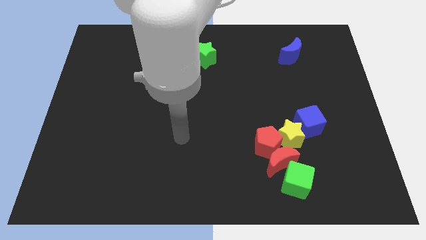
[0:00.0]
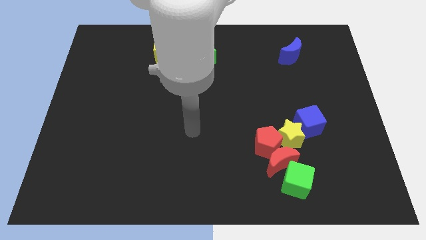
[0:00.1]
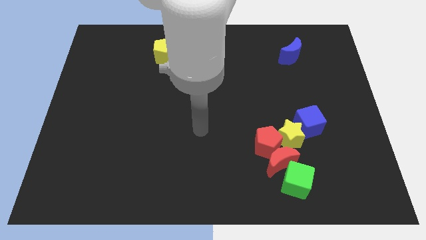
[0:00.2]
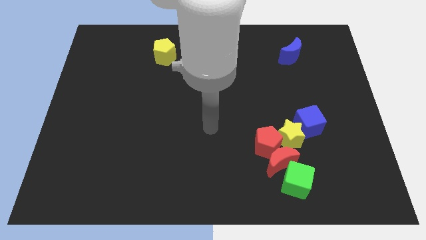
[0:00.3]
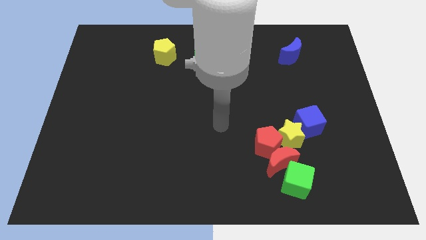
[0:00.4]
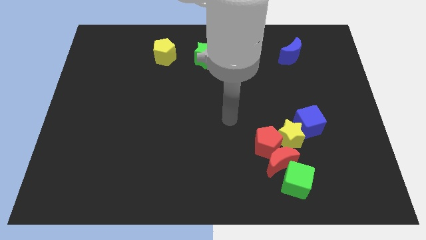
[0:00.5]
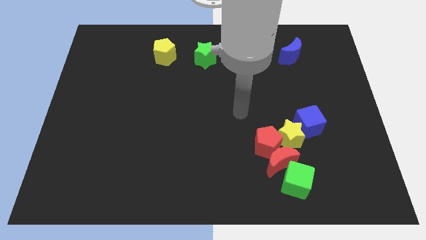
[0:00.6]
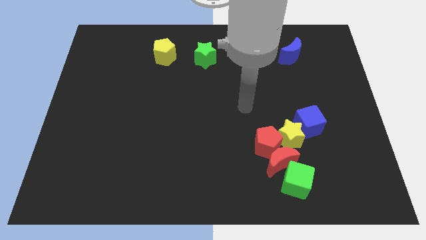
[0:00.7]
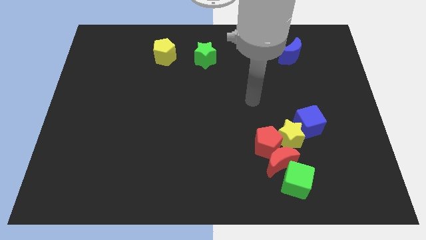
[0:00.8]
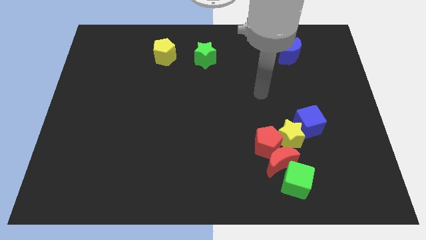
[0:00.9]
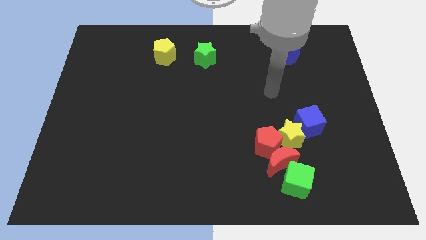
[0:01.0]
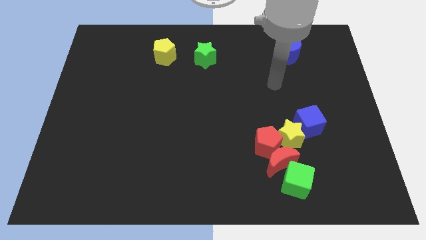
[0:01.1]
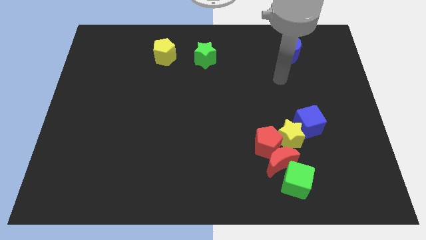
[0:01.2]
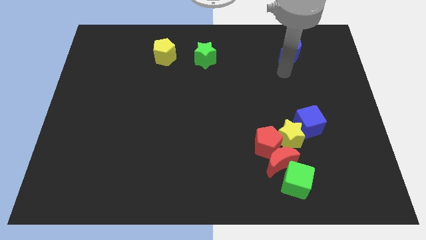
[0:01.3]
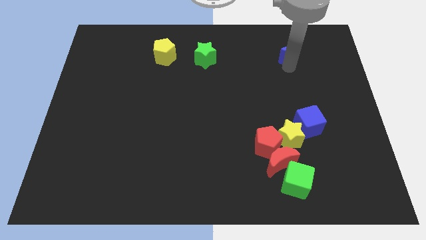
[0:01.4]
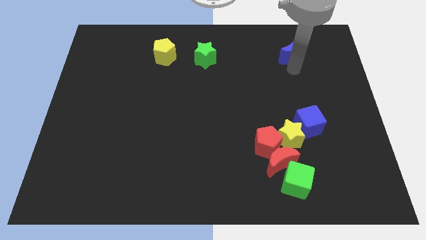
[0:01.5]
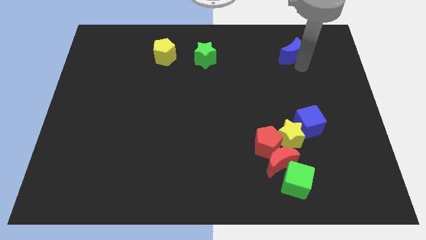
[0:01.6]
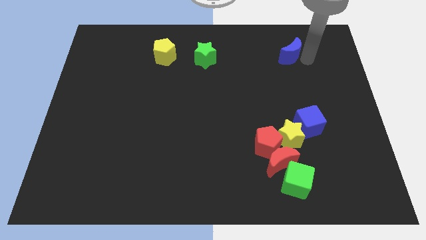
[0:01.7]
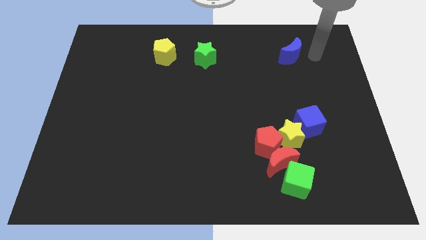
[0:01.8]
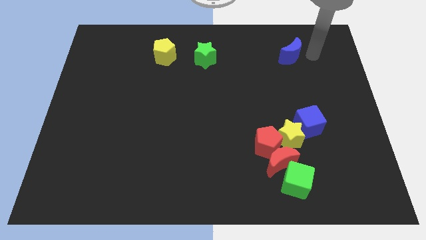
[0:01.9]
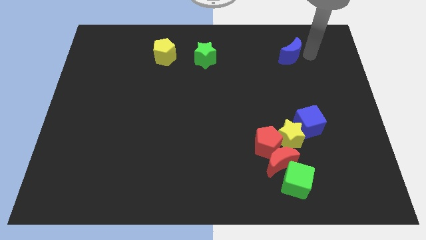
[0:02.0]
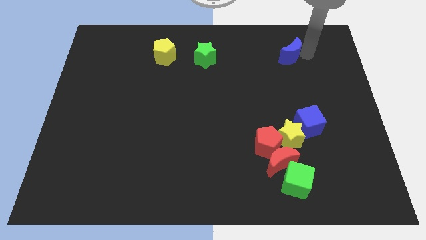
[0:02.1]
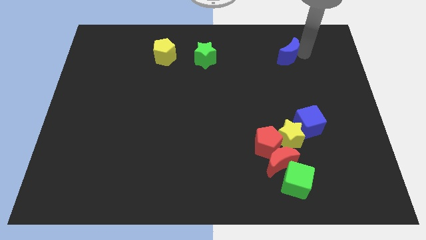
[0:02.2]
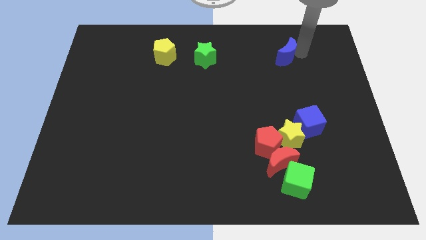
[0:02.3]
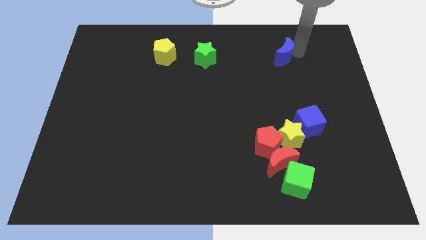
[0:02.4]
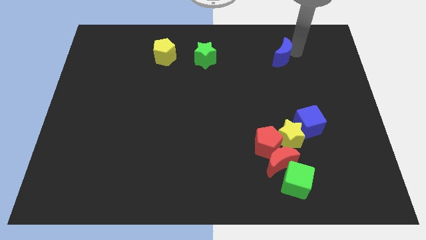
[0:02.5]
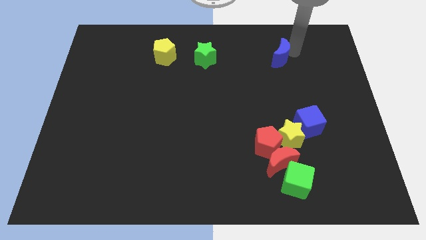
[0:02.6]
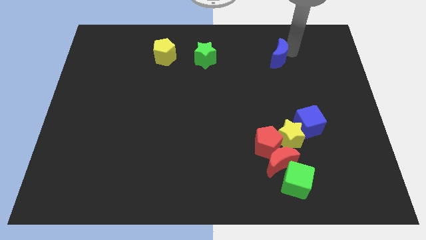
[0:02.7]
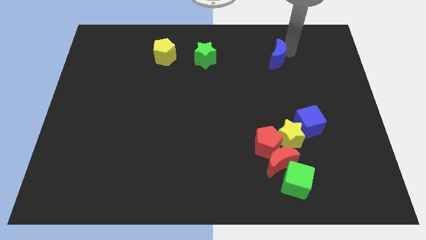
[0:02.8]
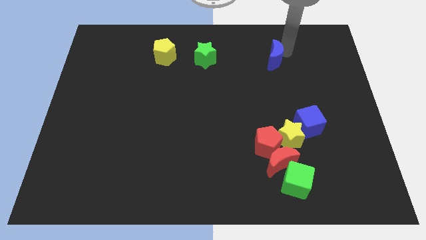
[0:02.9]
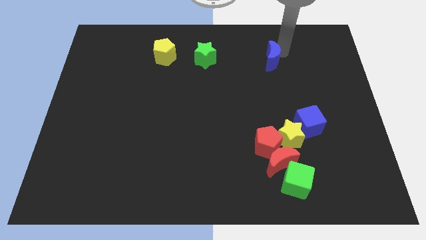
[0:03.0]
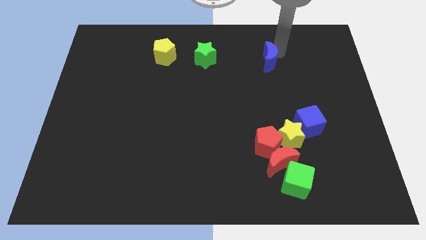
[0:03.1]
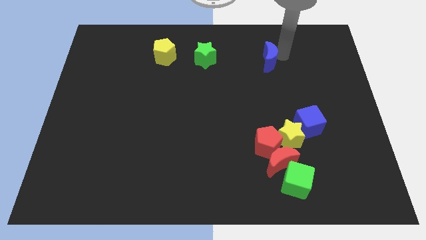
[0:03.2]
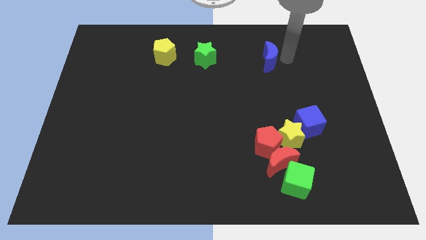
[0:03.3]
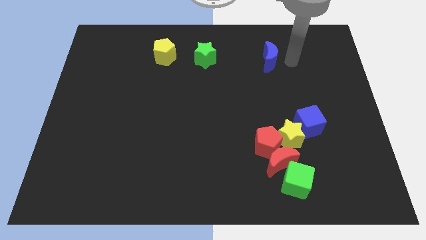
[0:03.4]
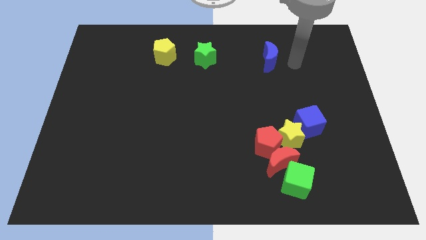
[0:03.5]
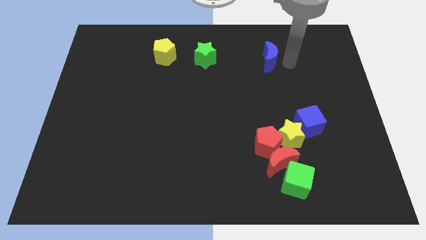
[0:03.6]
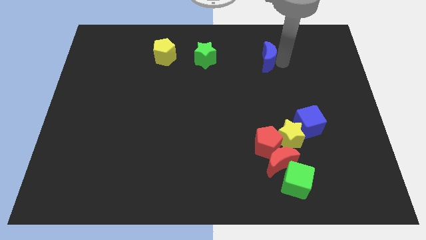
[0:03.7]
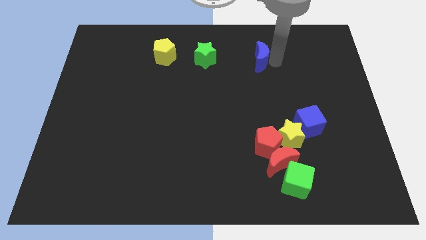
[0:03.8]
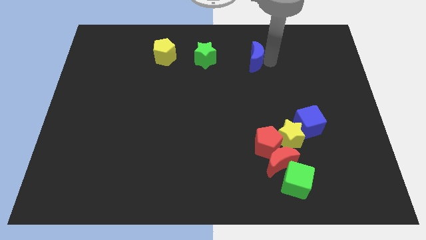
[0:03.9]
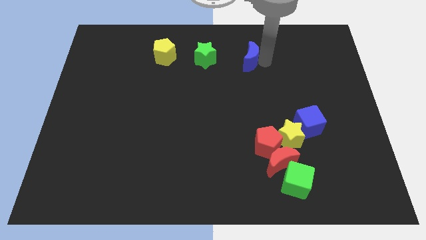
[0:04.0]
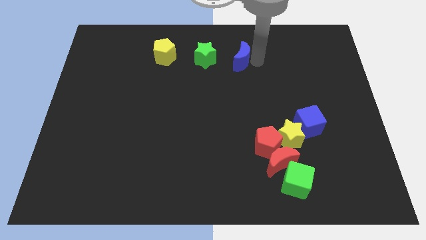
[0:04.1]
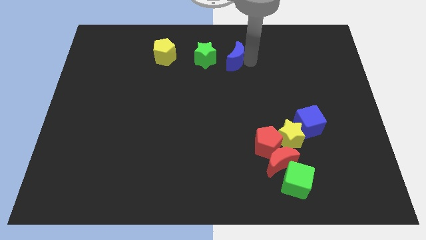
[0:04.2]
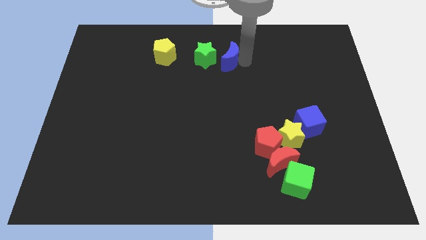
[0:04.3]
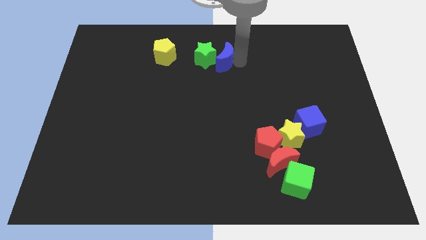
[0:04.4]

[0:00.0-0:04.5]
put the blue moon close to the green star

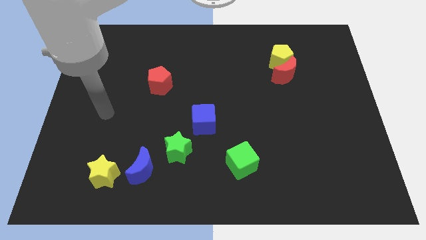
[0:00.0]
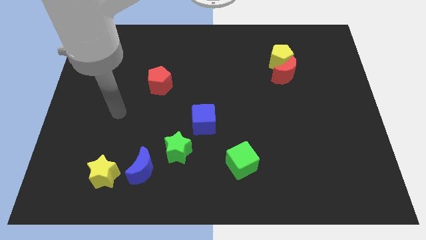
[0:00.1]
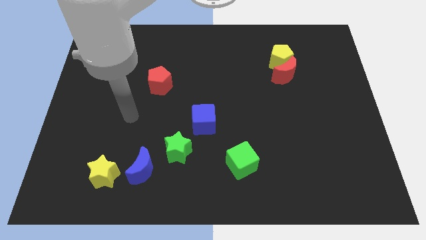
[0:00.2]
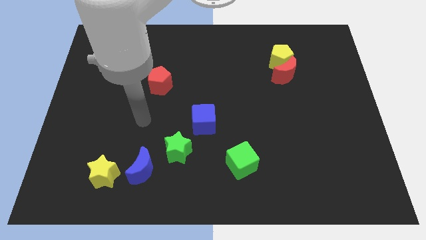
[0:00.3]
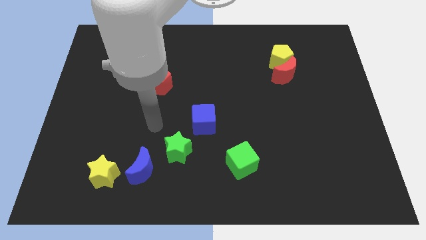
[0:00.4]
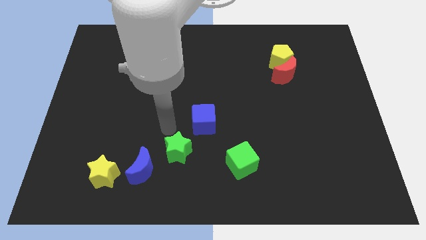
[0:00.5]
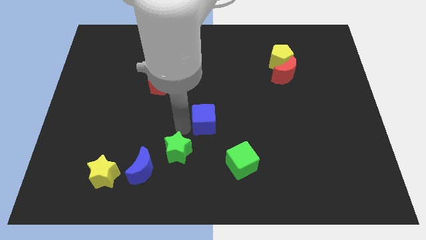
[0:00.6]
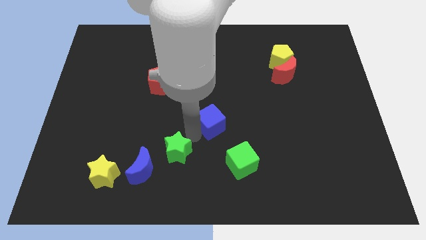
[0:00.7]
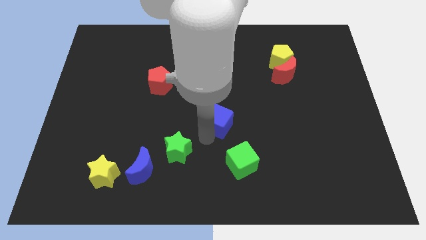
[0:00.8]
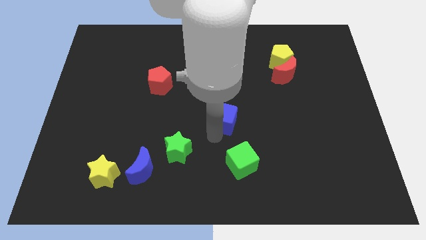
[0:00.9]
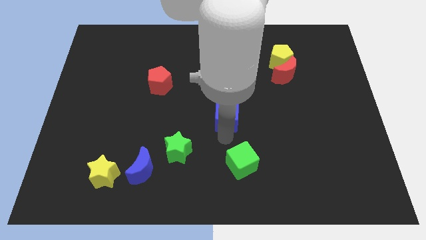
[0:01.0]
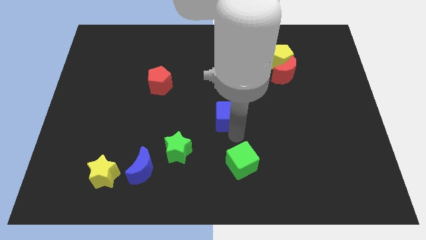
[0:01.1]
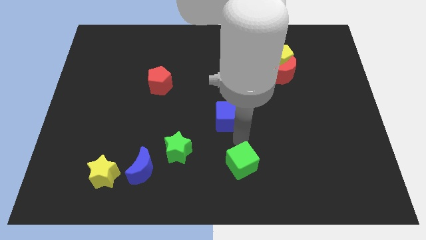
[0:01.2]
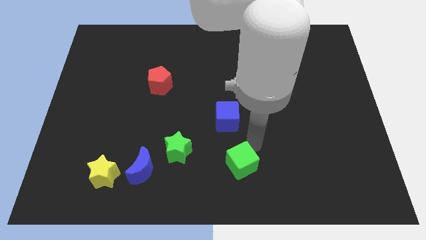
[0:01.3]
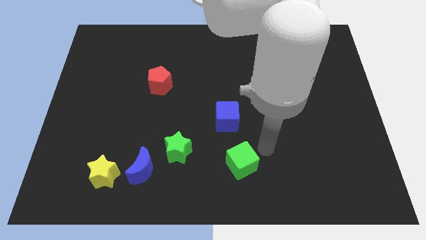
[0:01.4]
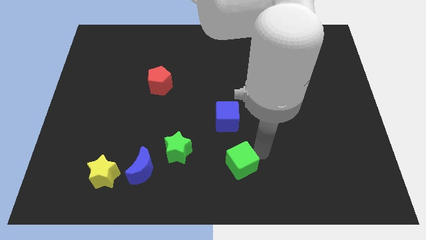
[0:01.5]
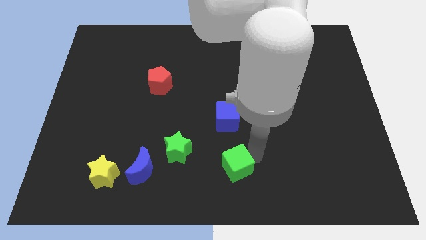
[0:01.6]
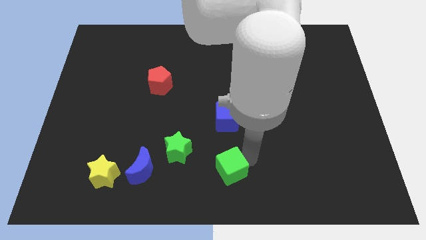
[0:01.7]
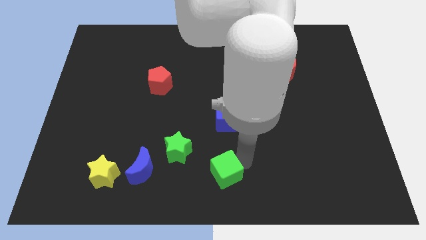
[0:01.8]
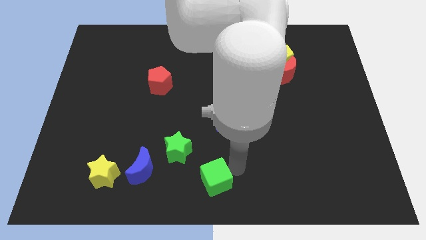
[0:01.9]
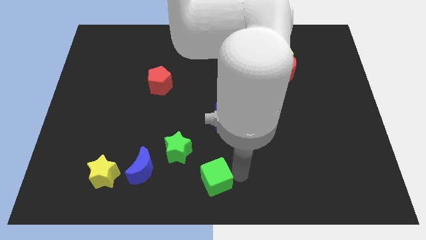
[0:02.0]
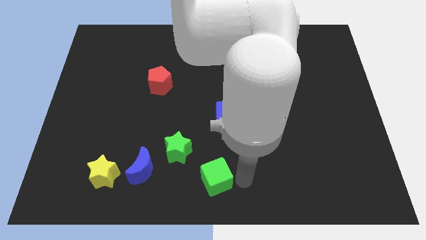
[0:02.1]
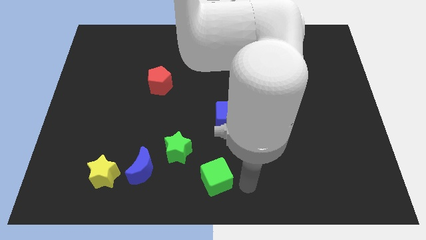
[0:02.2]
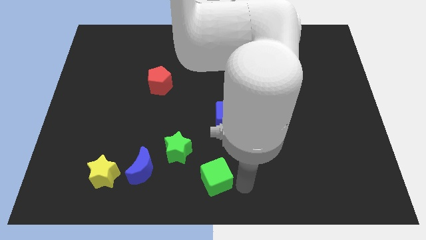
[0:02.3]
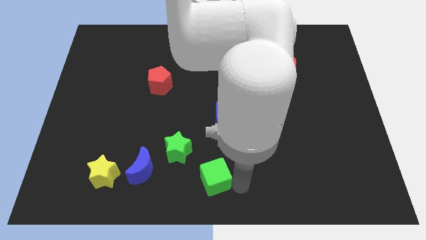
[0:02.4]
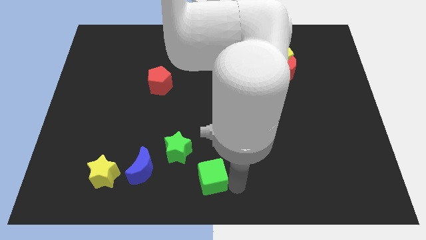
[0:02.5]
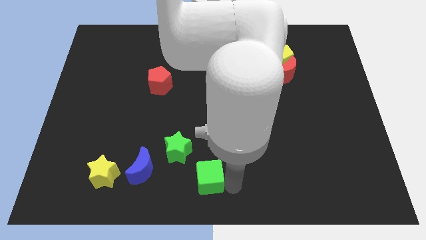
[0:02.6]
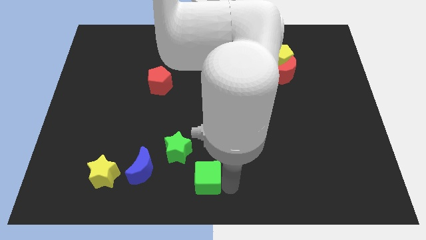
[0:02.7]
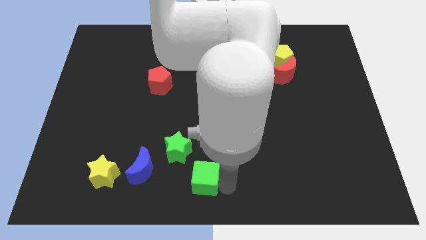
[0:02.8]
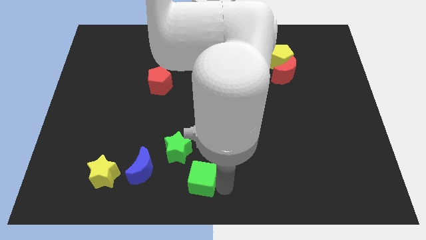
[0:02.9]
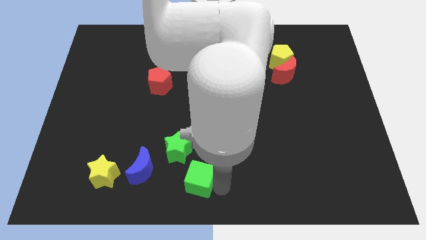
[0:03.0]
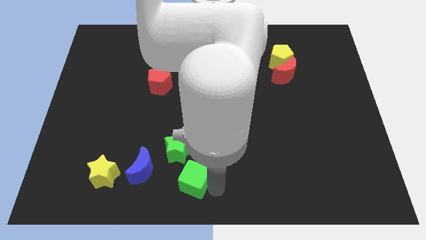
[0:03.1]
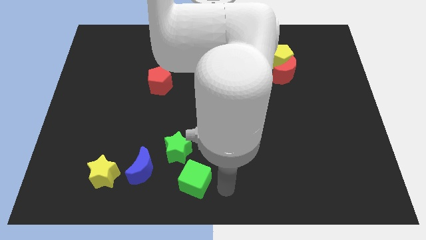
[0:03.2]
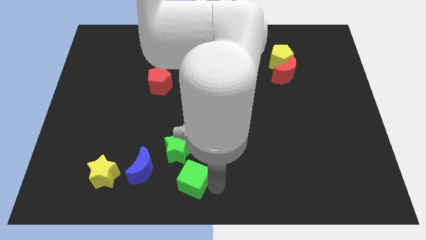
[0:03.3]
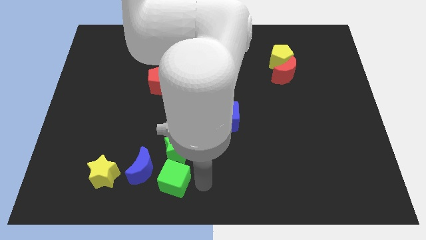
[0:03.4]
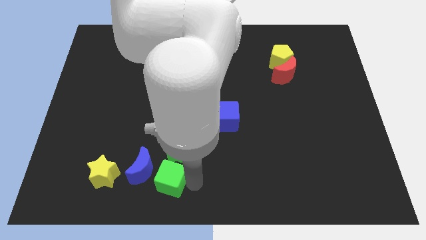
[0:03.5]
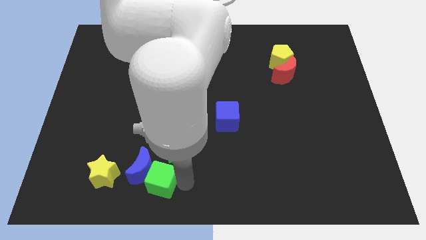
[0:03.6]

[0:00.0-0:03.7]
put the green cube close to the blue moon
